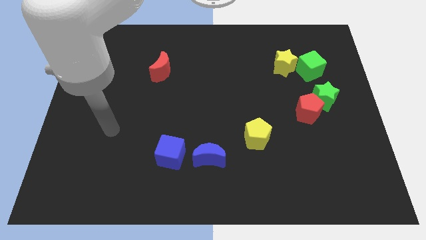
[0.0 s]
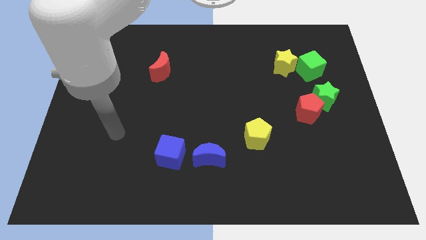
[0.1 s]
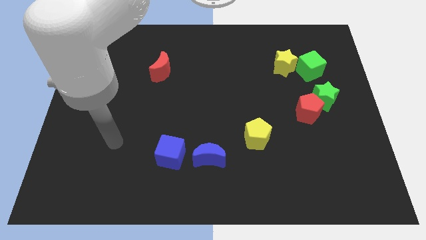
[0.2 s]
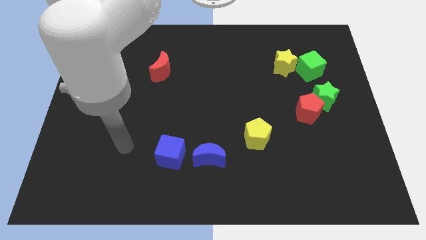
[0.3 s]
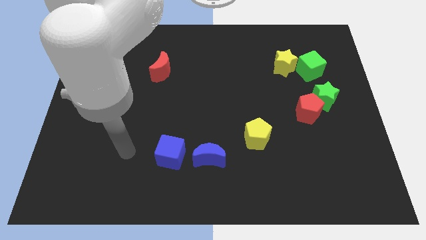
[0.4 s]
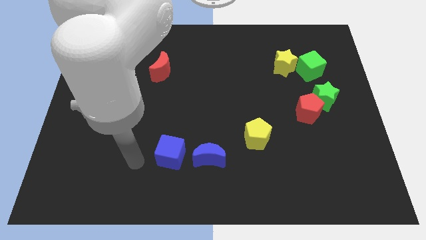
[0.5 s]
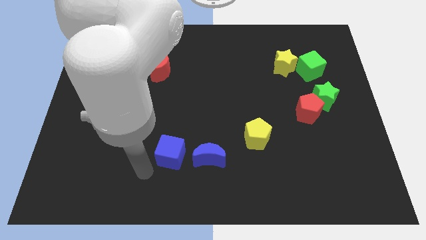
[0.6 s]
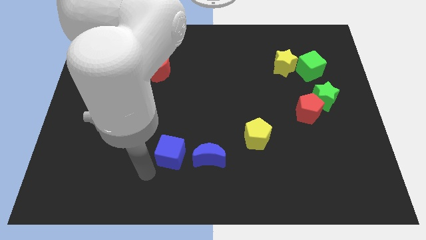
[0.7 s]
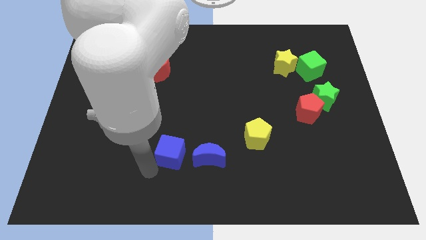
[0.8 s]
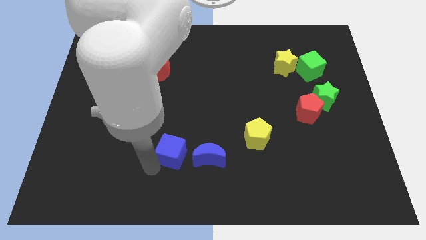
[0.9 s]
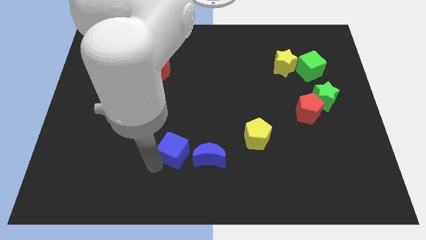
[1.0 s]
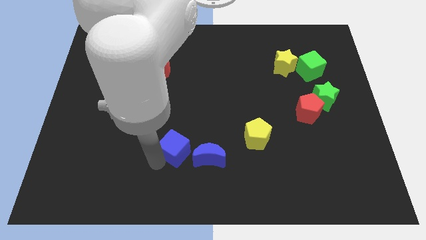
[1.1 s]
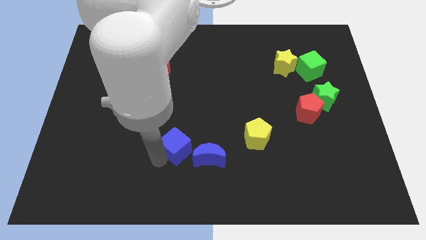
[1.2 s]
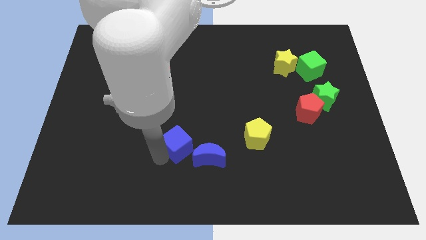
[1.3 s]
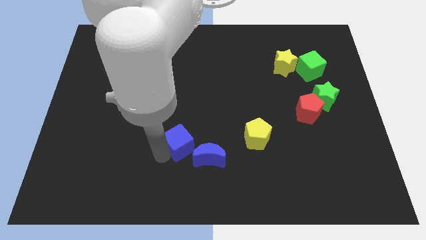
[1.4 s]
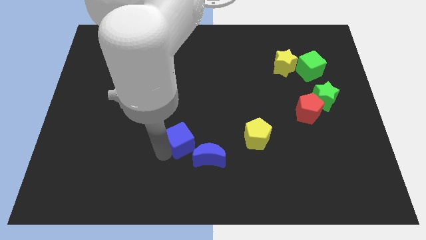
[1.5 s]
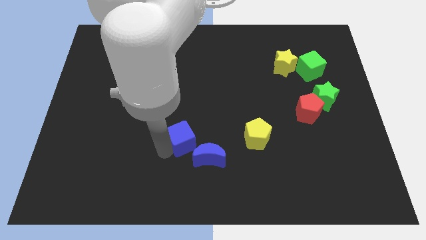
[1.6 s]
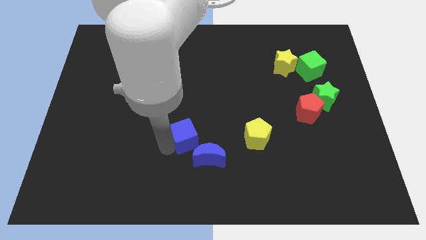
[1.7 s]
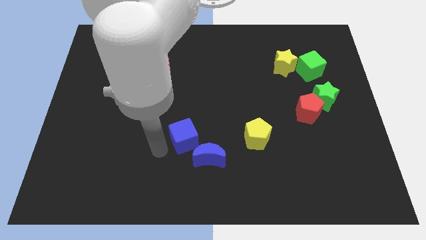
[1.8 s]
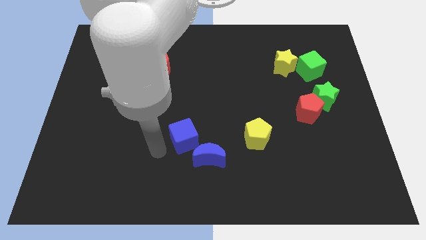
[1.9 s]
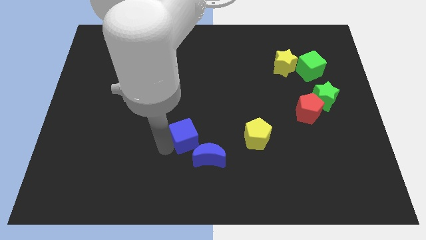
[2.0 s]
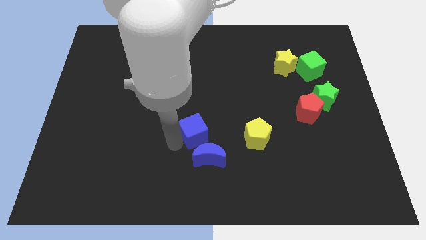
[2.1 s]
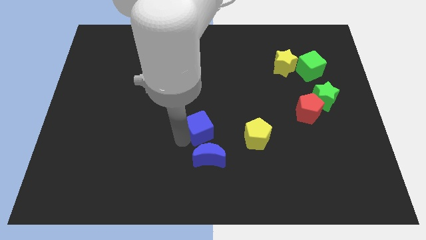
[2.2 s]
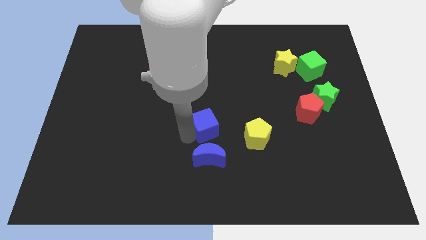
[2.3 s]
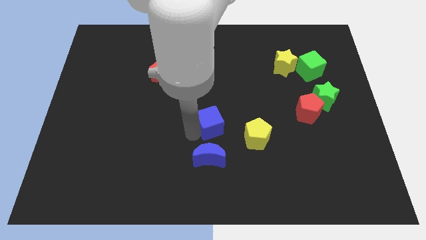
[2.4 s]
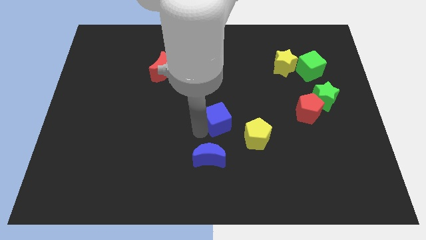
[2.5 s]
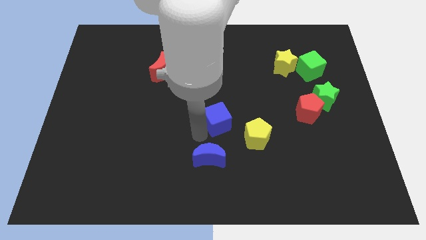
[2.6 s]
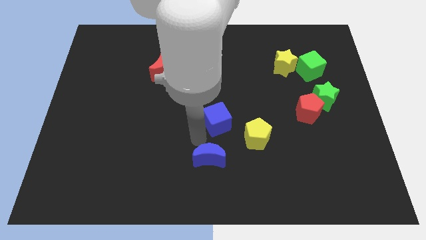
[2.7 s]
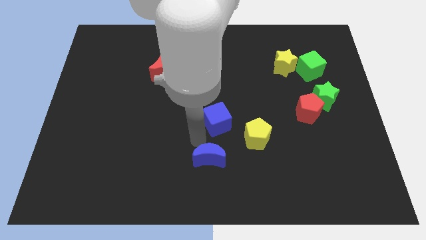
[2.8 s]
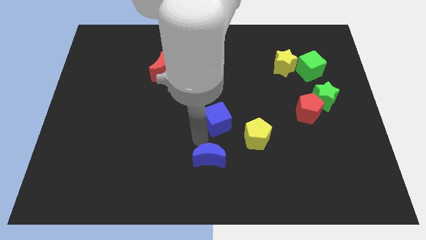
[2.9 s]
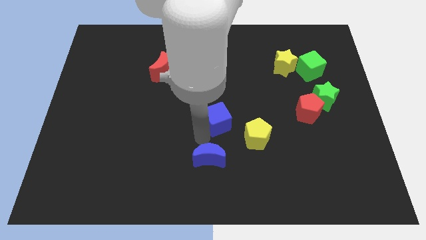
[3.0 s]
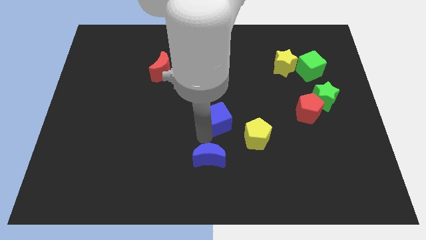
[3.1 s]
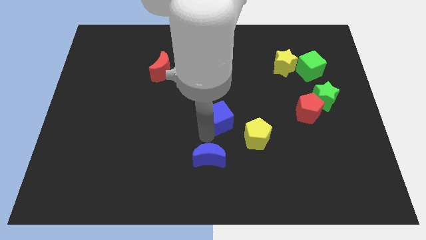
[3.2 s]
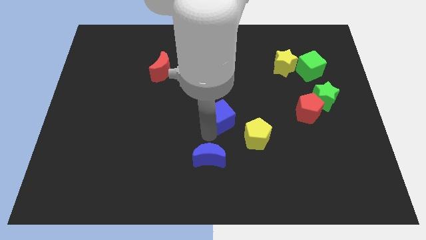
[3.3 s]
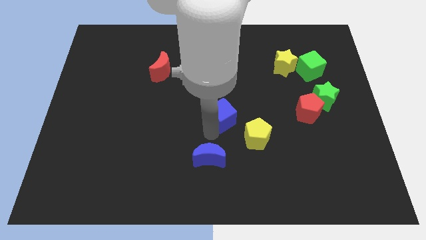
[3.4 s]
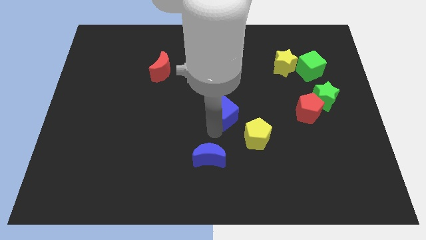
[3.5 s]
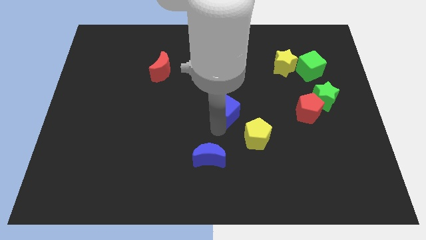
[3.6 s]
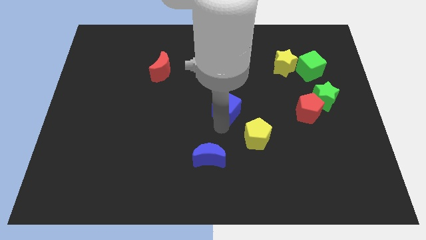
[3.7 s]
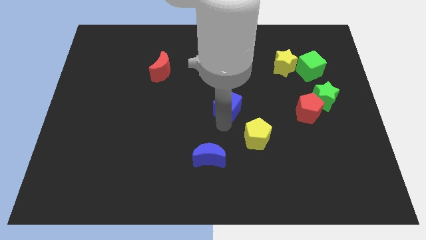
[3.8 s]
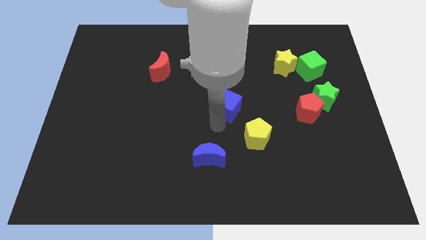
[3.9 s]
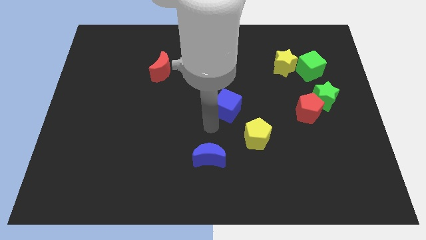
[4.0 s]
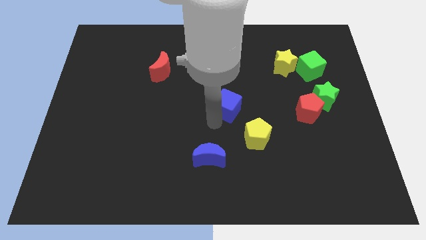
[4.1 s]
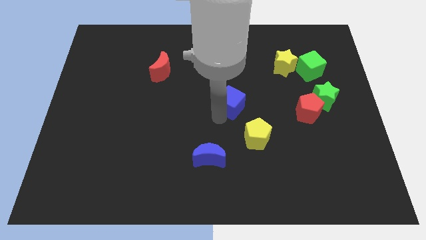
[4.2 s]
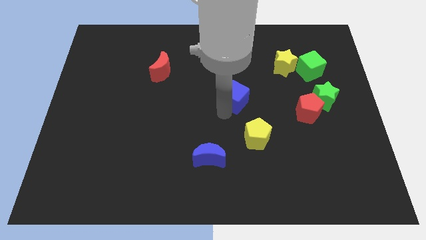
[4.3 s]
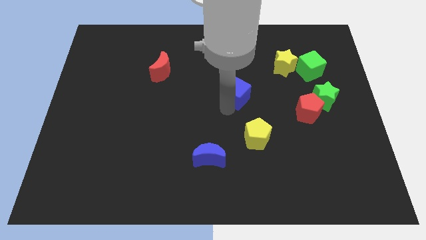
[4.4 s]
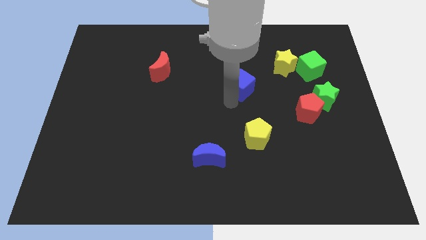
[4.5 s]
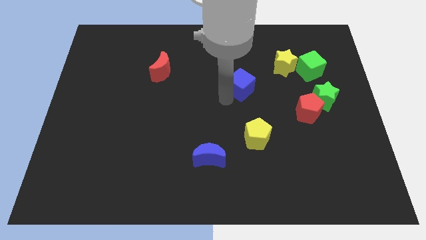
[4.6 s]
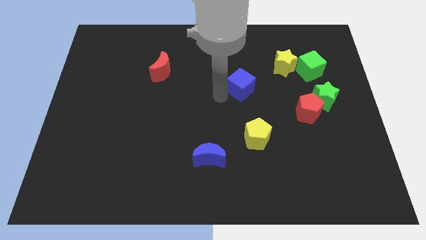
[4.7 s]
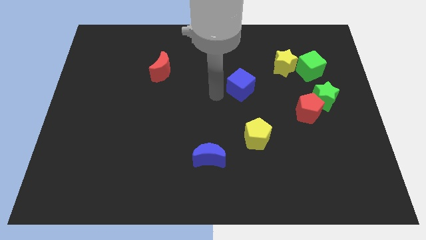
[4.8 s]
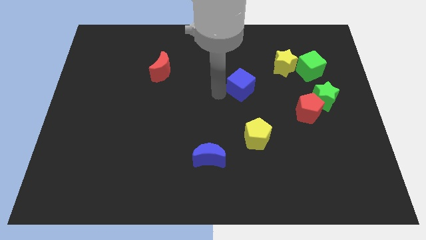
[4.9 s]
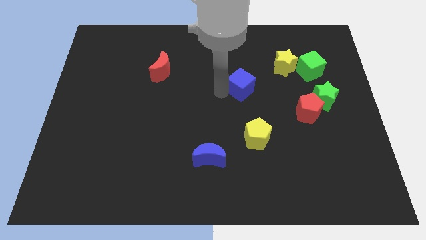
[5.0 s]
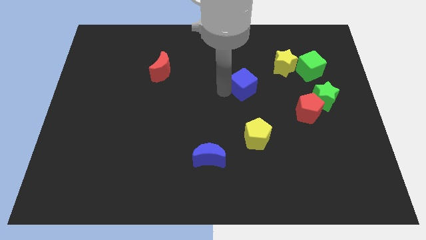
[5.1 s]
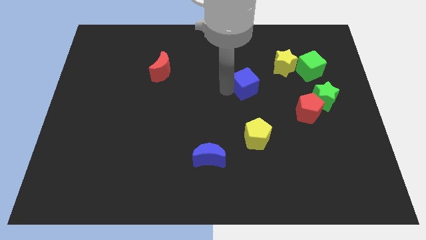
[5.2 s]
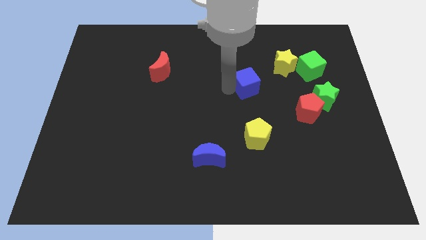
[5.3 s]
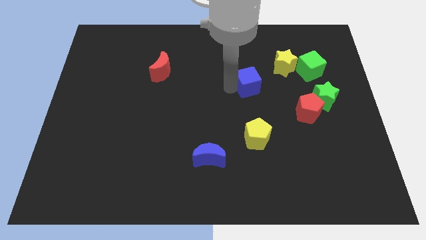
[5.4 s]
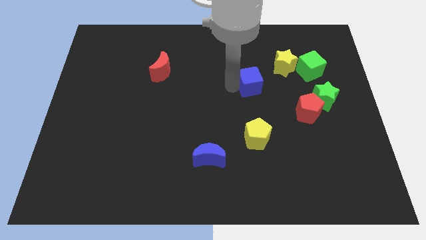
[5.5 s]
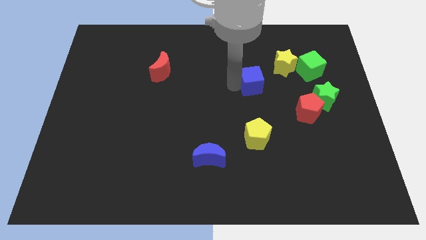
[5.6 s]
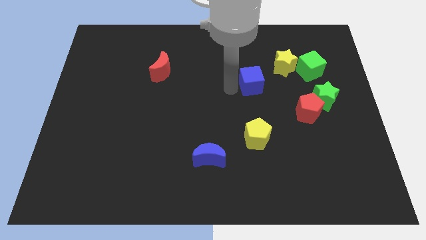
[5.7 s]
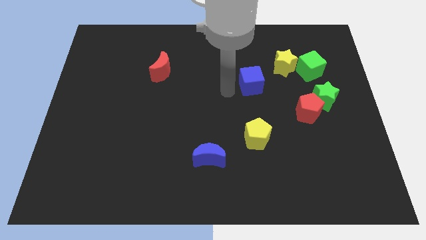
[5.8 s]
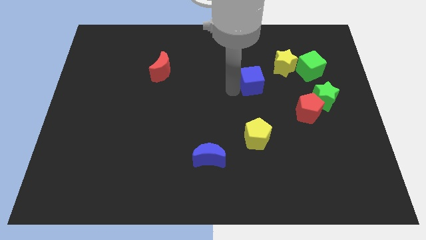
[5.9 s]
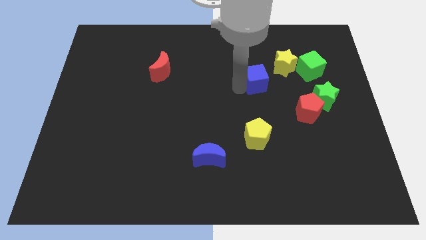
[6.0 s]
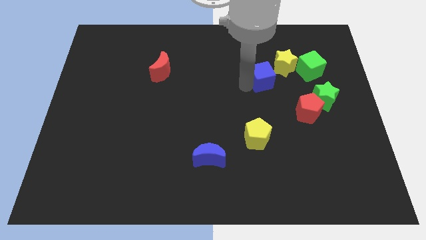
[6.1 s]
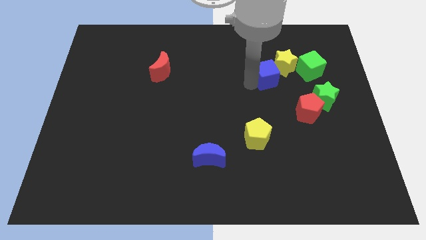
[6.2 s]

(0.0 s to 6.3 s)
move the blue cube towards the yellow star

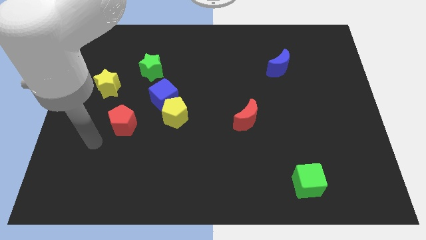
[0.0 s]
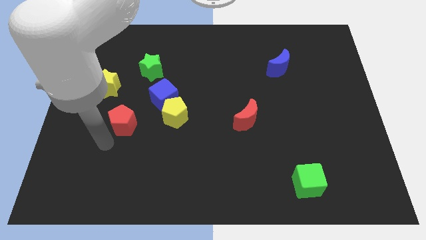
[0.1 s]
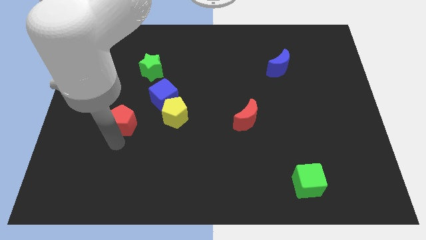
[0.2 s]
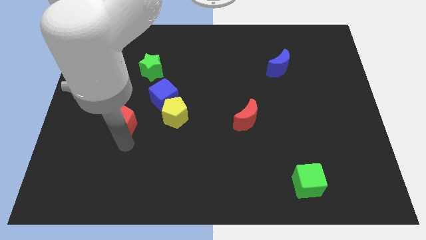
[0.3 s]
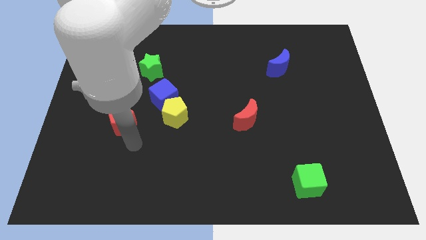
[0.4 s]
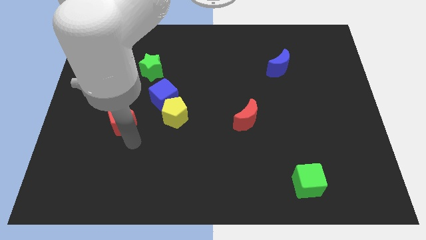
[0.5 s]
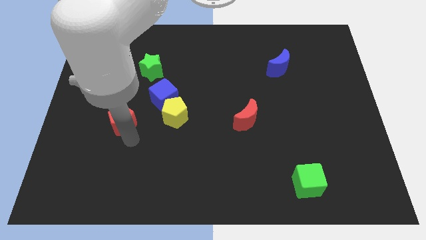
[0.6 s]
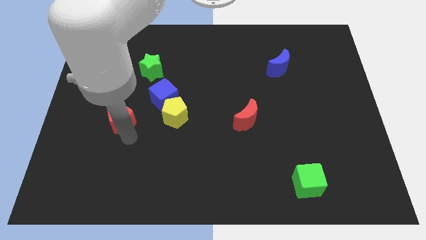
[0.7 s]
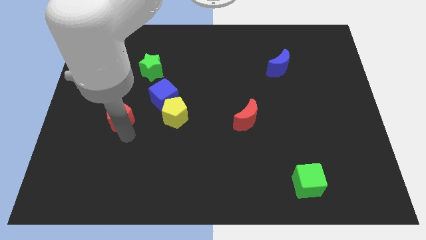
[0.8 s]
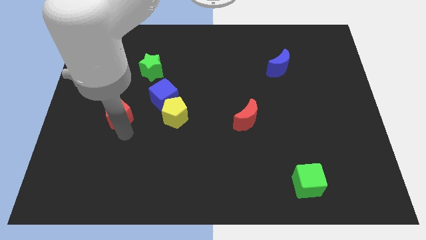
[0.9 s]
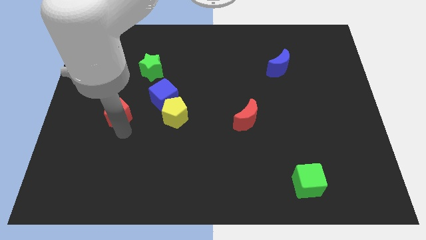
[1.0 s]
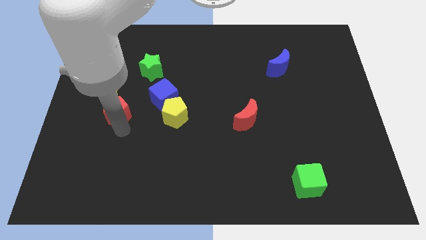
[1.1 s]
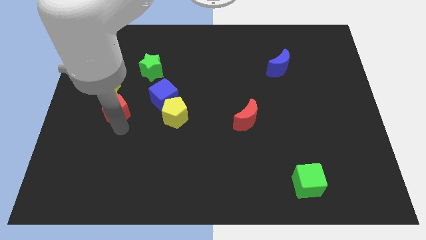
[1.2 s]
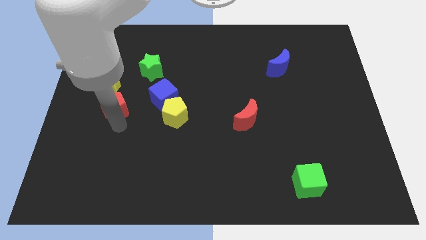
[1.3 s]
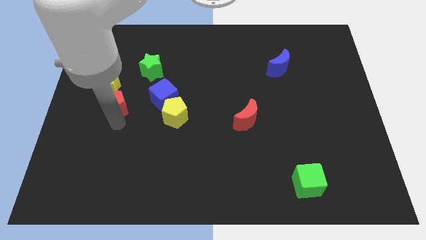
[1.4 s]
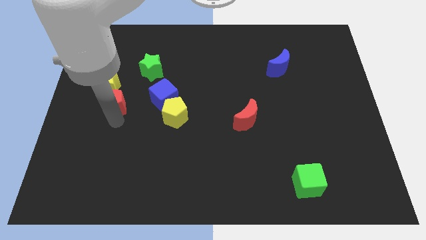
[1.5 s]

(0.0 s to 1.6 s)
push the red pentagon close to the yellow star
